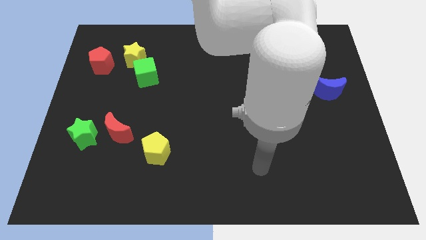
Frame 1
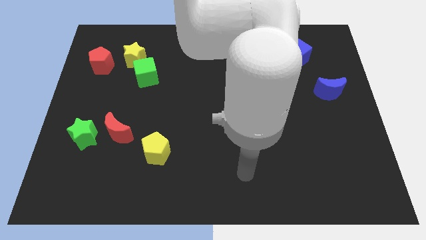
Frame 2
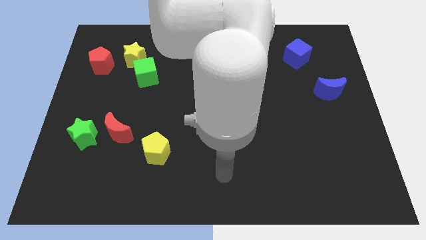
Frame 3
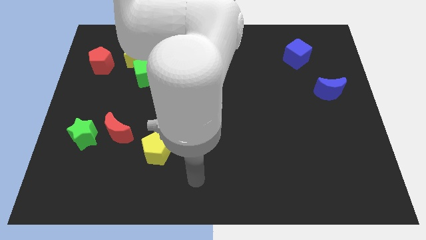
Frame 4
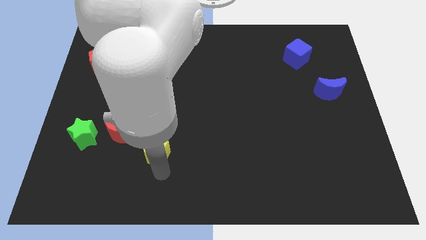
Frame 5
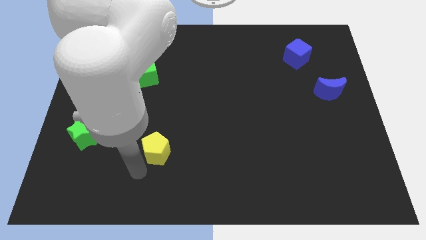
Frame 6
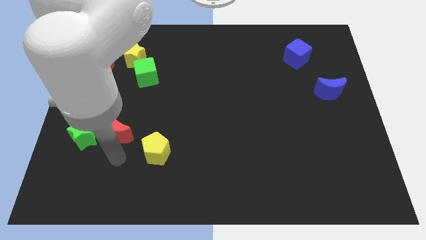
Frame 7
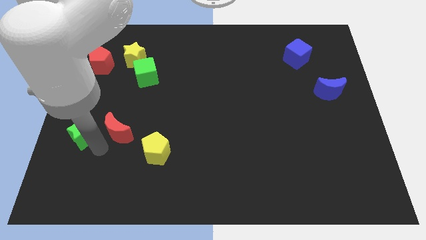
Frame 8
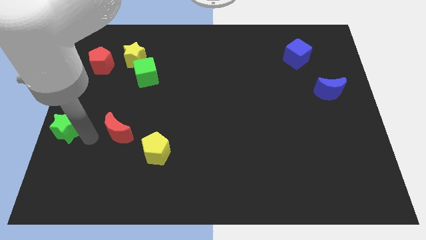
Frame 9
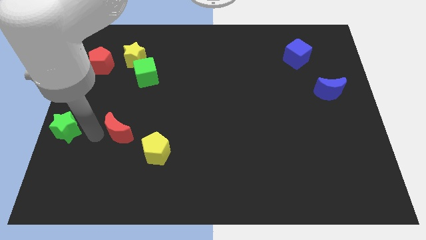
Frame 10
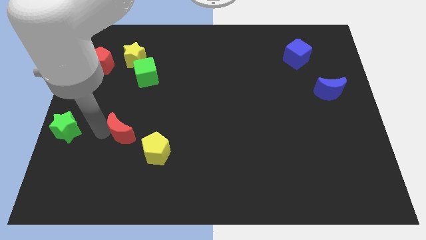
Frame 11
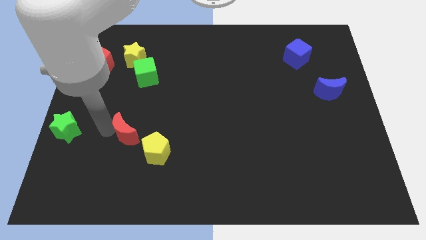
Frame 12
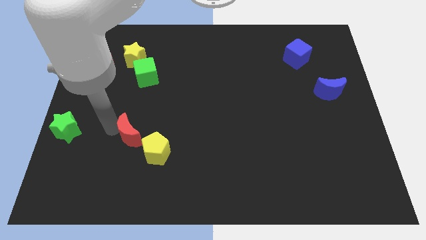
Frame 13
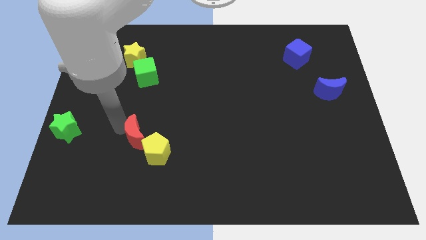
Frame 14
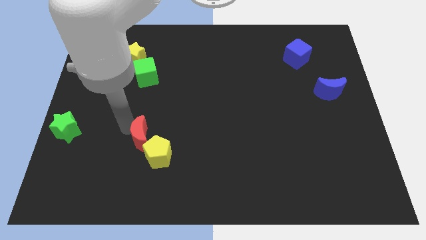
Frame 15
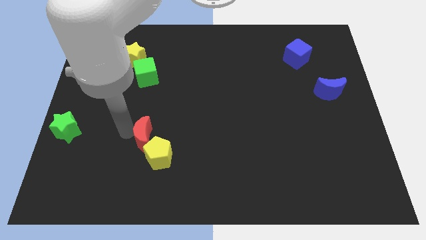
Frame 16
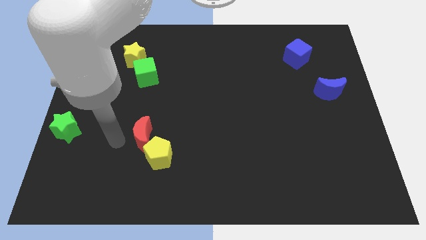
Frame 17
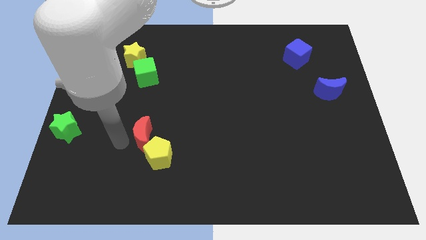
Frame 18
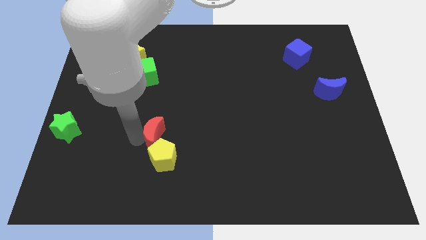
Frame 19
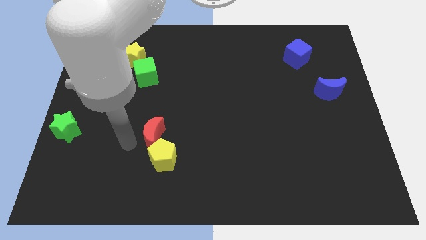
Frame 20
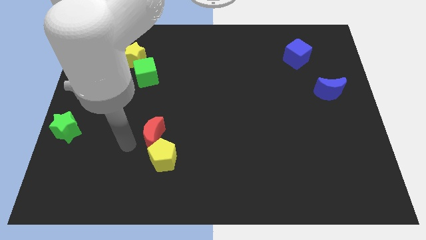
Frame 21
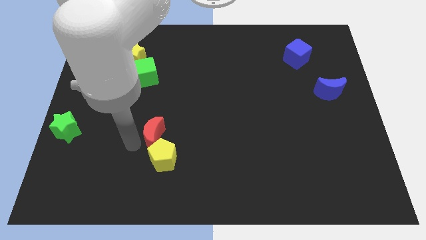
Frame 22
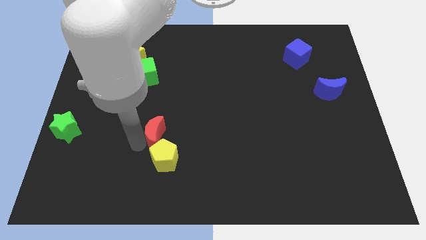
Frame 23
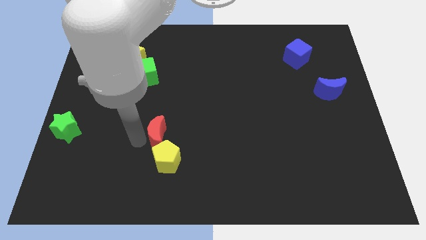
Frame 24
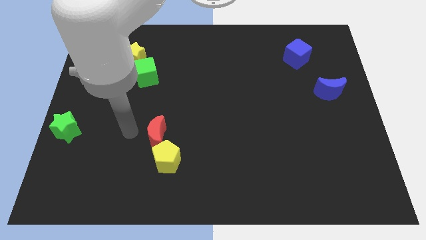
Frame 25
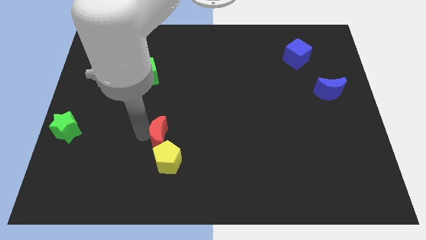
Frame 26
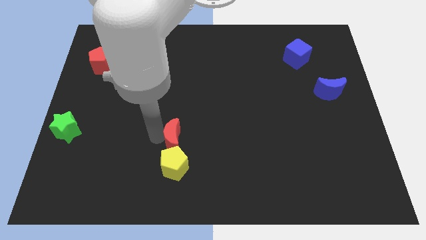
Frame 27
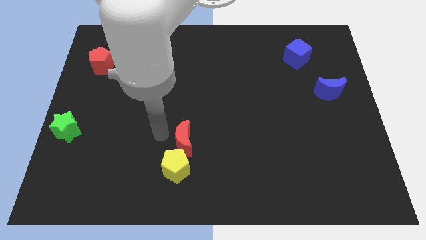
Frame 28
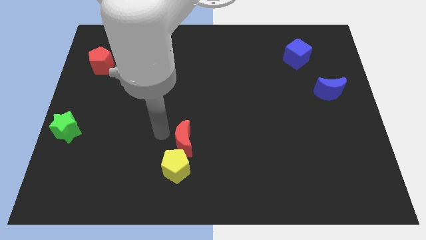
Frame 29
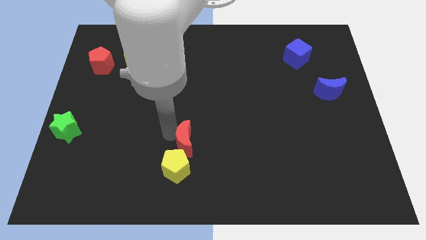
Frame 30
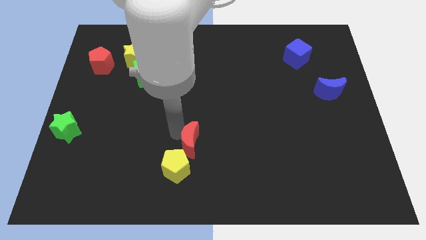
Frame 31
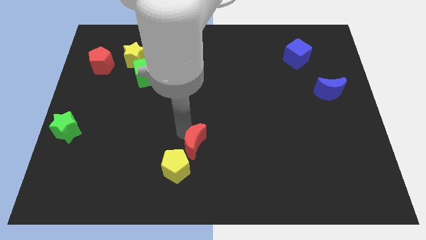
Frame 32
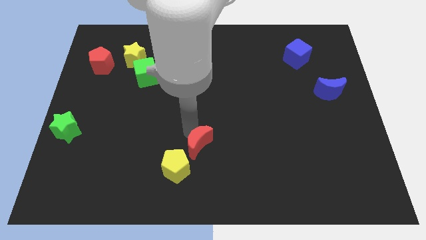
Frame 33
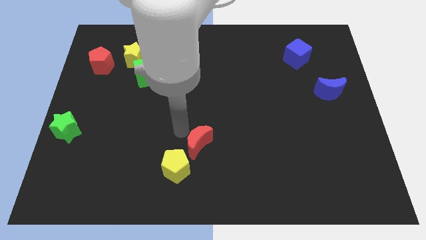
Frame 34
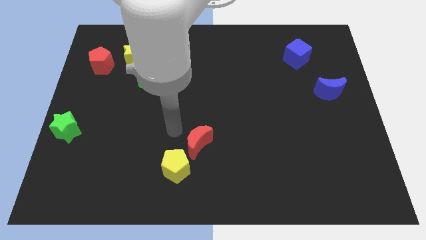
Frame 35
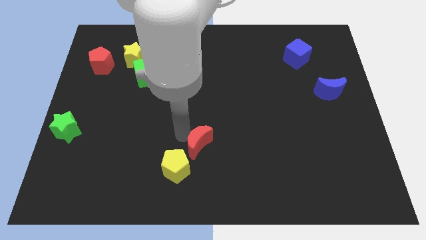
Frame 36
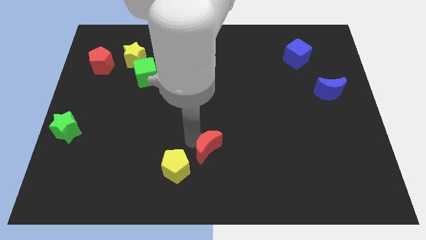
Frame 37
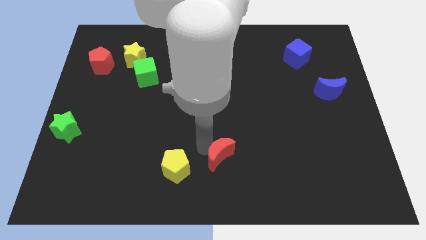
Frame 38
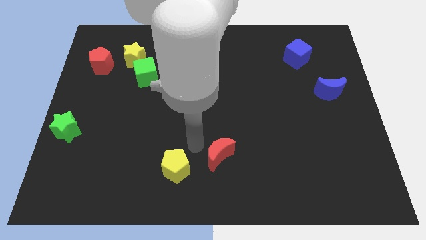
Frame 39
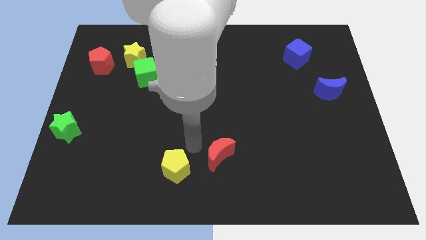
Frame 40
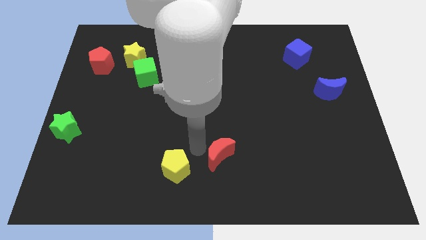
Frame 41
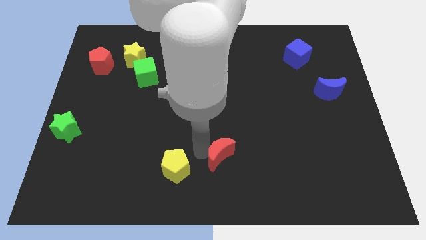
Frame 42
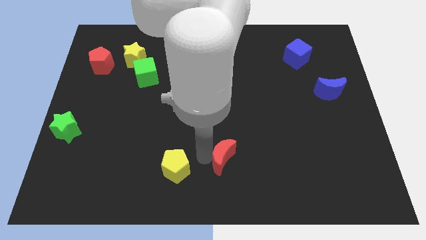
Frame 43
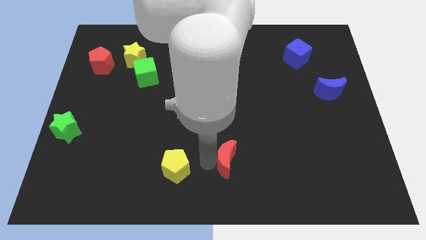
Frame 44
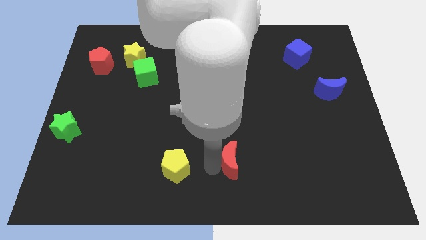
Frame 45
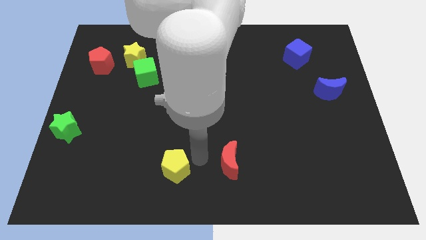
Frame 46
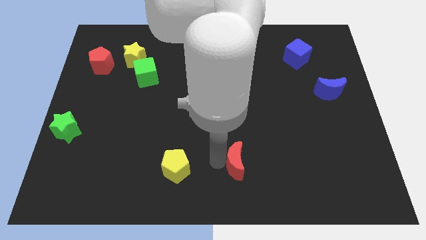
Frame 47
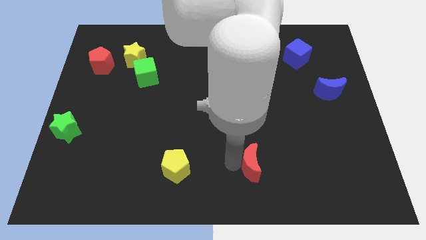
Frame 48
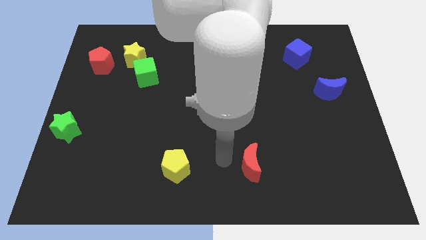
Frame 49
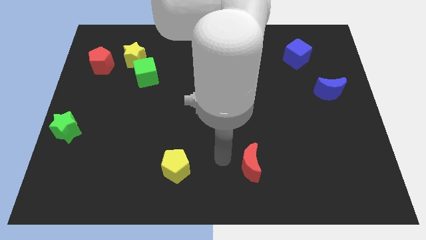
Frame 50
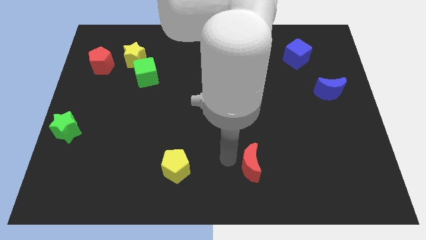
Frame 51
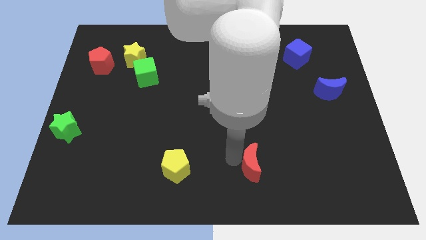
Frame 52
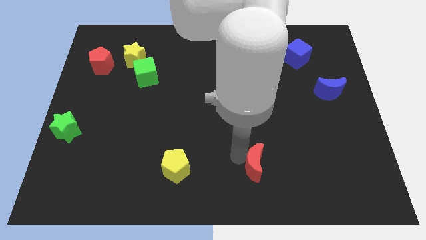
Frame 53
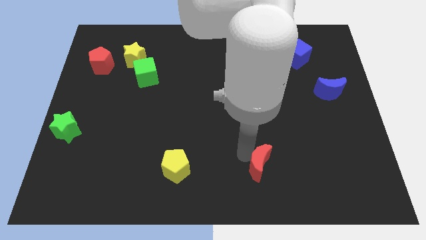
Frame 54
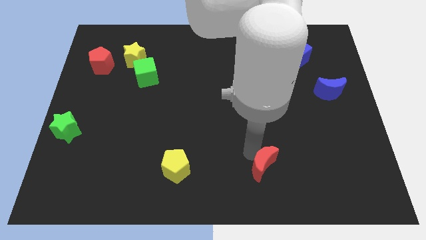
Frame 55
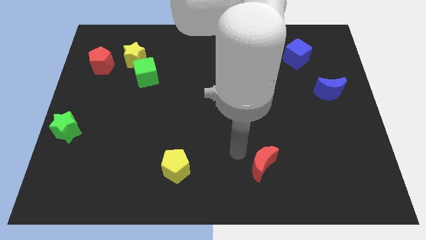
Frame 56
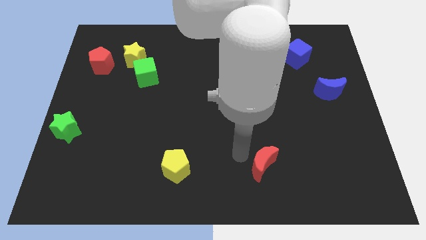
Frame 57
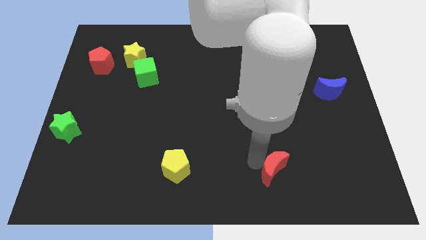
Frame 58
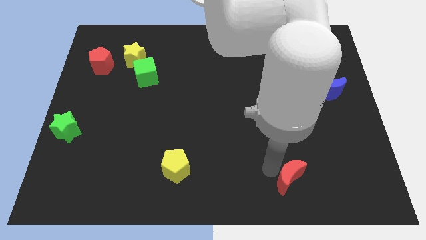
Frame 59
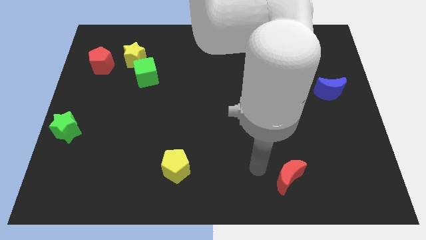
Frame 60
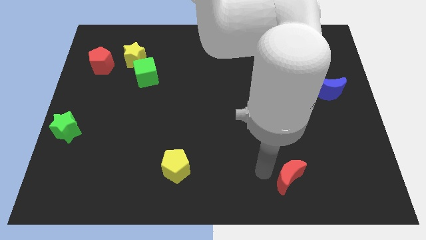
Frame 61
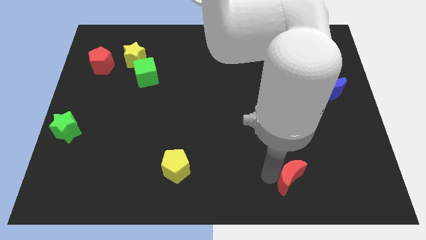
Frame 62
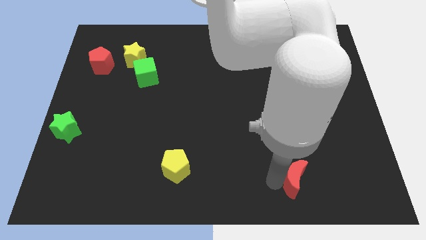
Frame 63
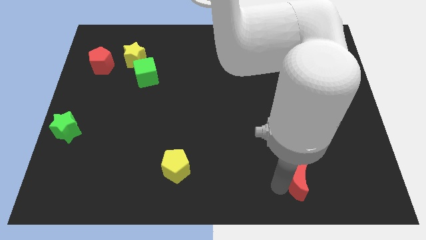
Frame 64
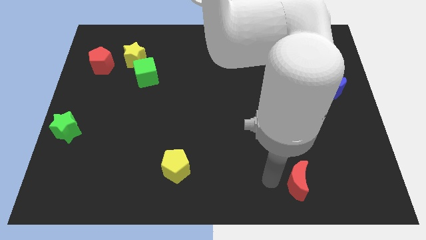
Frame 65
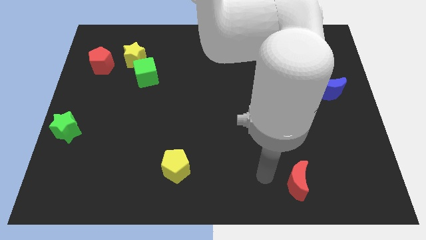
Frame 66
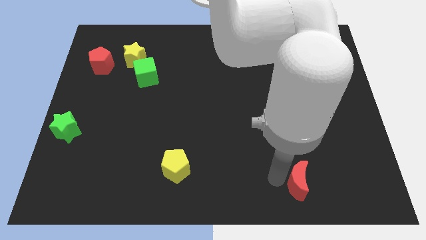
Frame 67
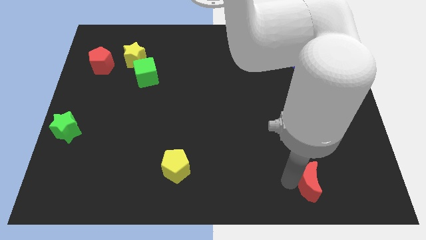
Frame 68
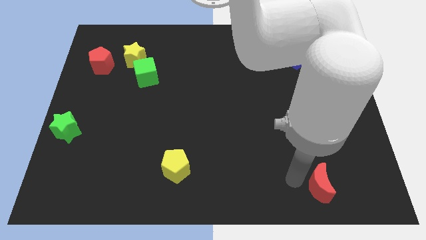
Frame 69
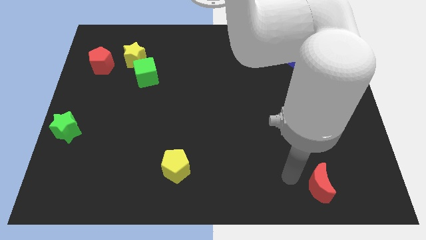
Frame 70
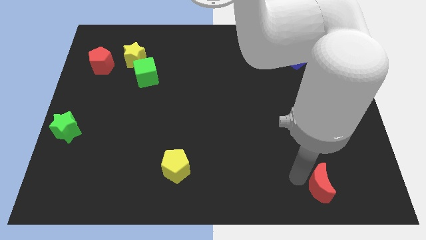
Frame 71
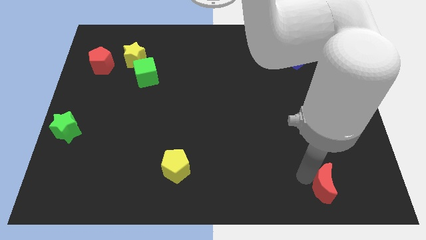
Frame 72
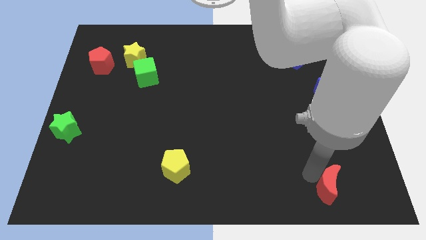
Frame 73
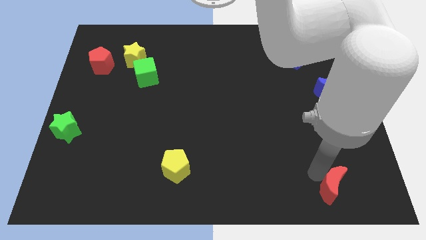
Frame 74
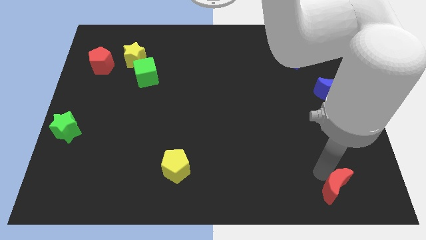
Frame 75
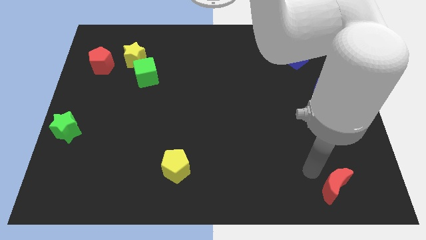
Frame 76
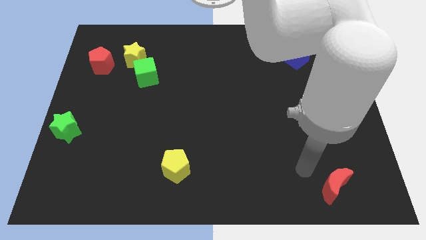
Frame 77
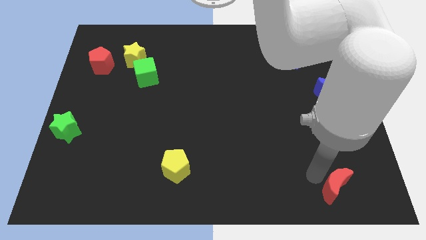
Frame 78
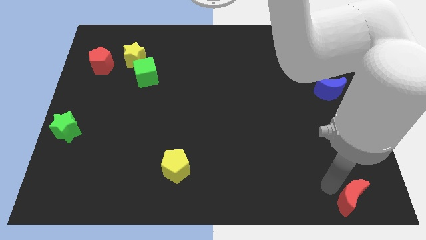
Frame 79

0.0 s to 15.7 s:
push the red moon to the bottom right corner

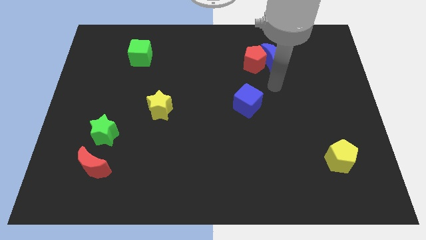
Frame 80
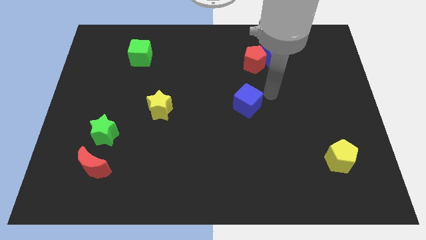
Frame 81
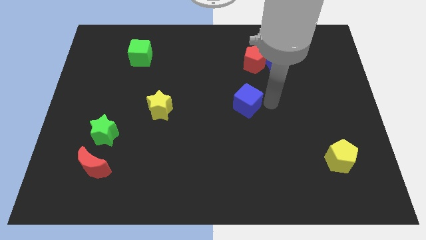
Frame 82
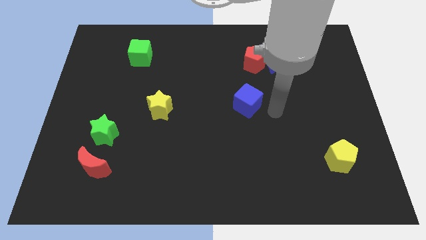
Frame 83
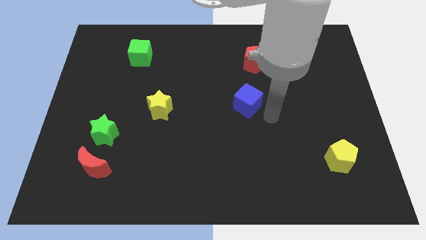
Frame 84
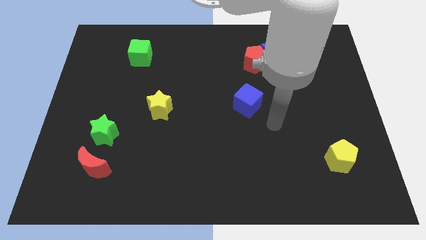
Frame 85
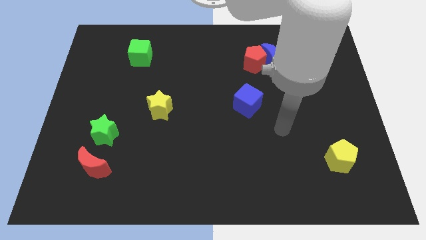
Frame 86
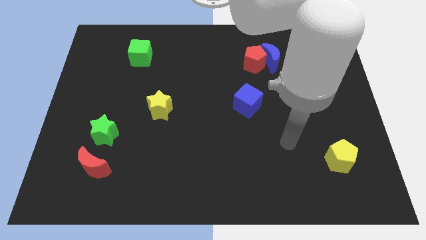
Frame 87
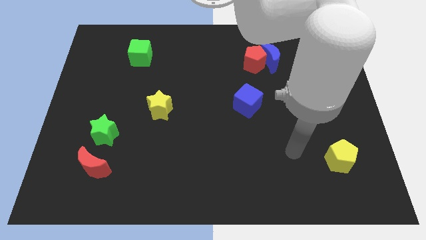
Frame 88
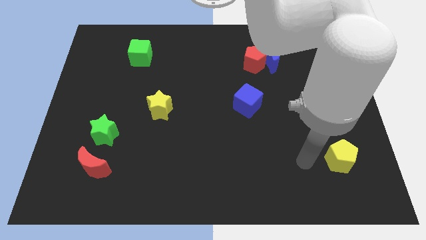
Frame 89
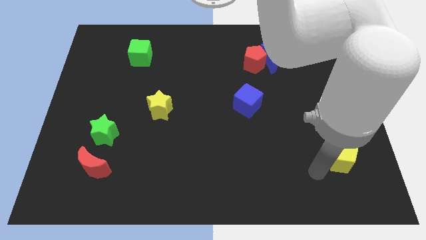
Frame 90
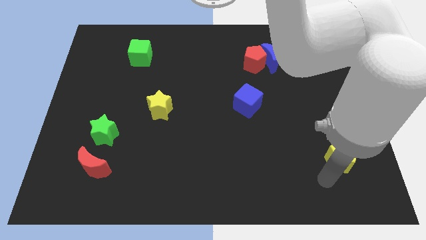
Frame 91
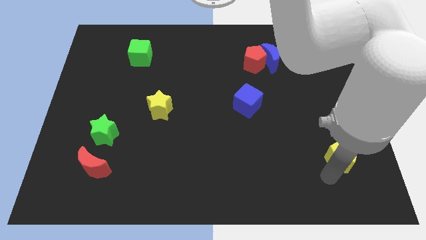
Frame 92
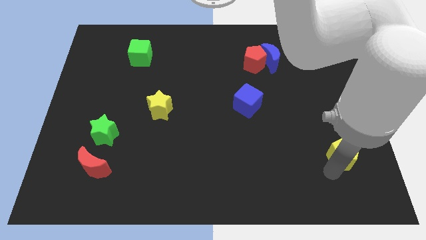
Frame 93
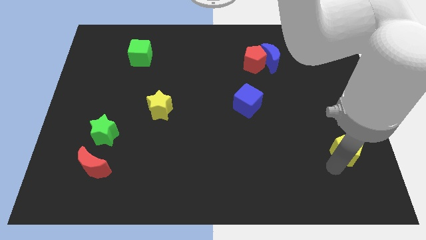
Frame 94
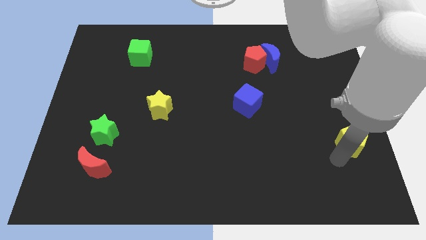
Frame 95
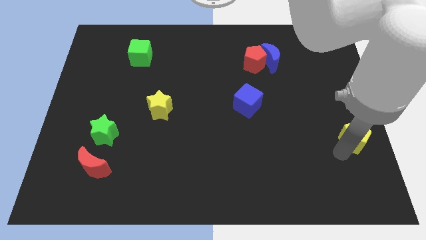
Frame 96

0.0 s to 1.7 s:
move the yellow pentagon to the right side of the board
